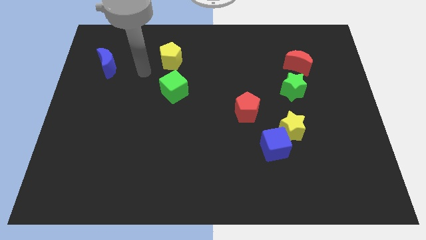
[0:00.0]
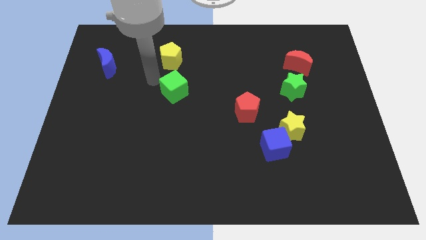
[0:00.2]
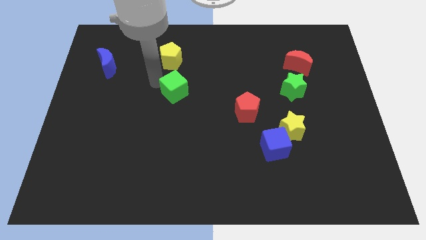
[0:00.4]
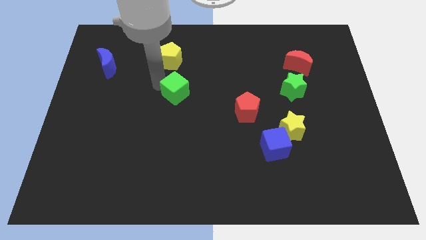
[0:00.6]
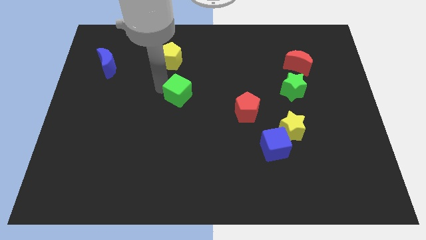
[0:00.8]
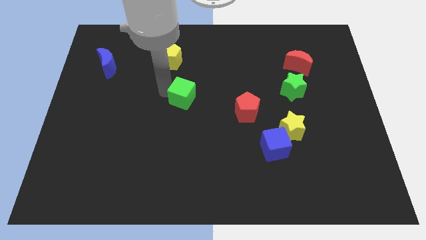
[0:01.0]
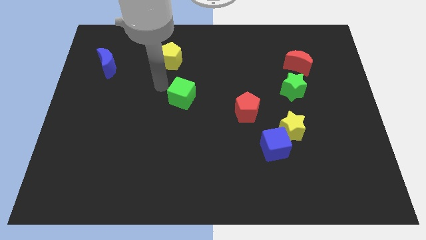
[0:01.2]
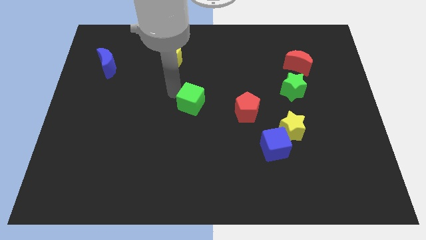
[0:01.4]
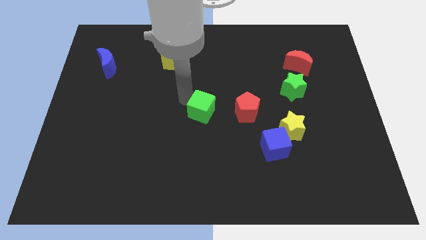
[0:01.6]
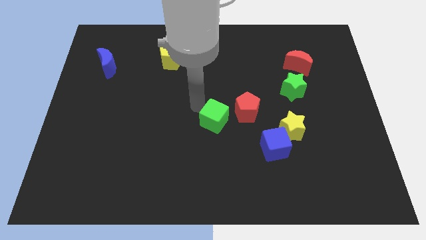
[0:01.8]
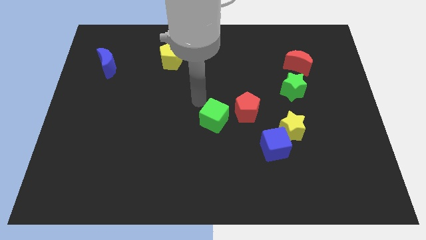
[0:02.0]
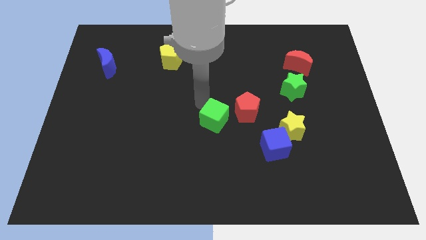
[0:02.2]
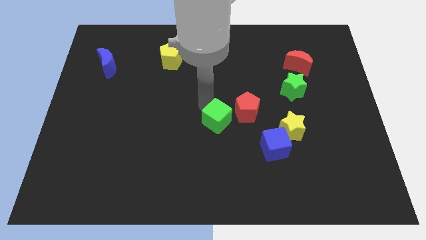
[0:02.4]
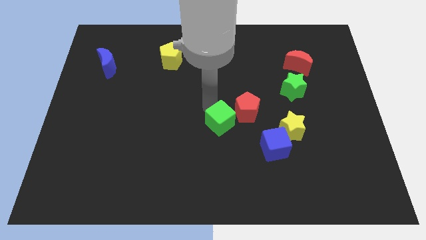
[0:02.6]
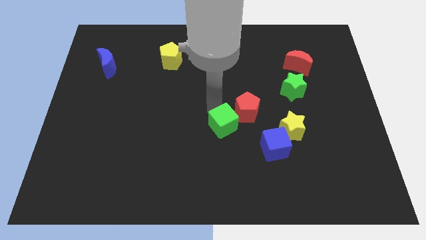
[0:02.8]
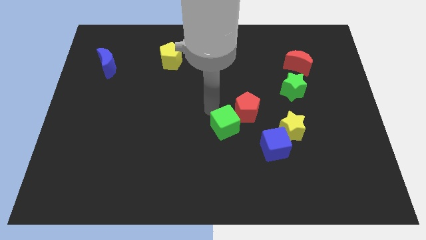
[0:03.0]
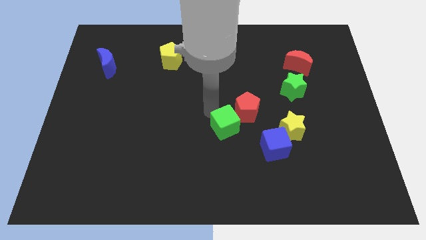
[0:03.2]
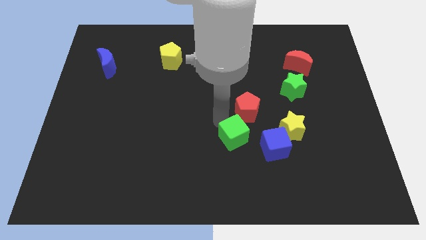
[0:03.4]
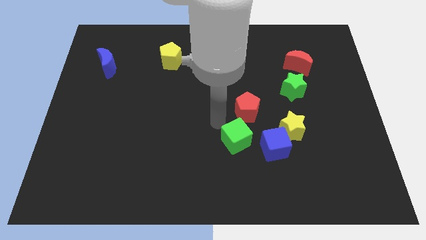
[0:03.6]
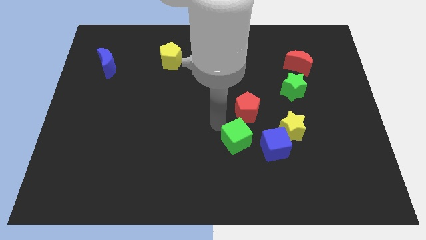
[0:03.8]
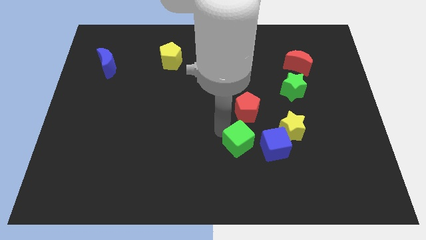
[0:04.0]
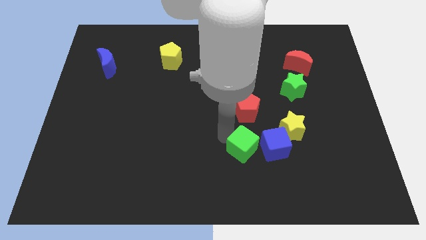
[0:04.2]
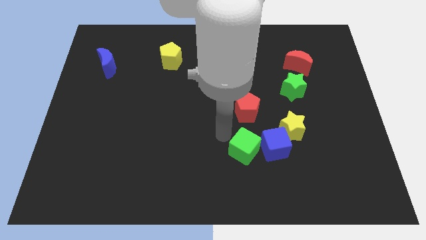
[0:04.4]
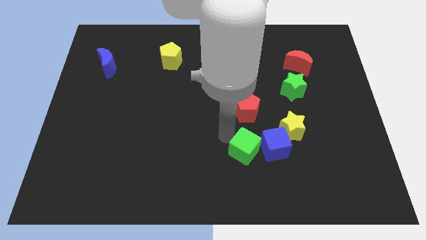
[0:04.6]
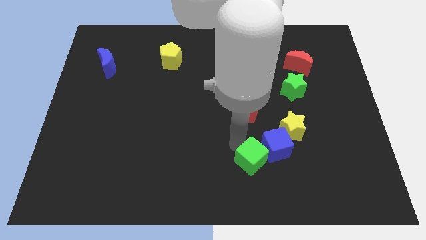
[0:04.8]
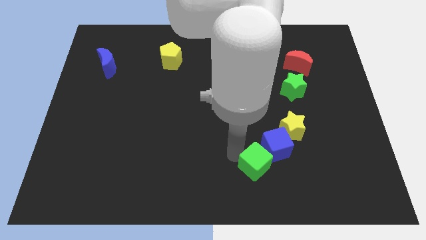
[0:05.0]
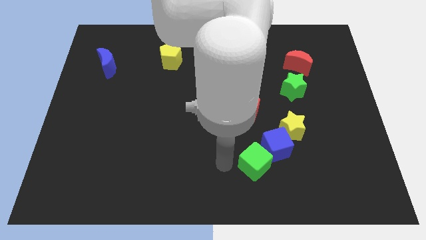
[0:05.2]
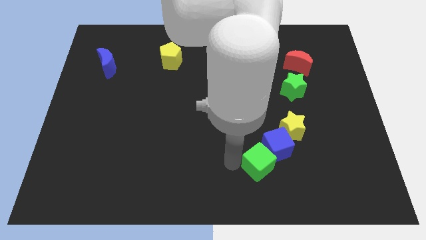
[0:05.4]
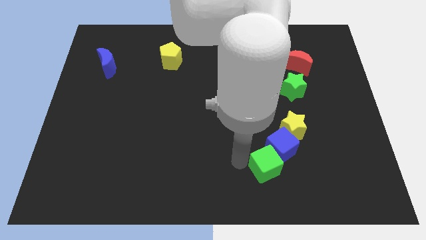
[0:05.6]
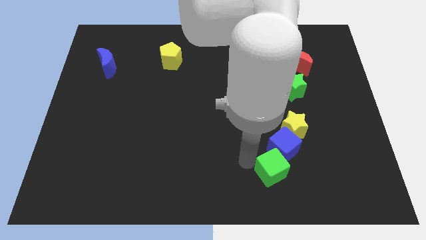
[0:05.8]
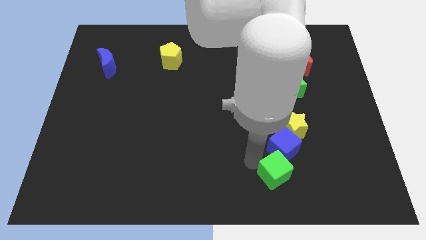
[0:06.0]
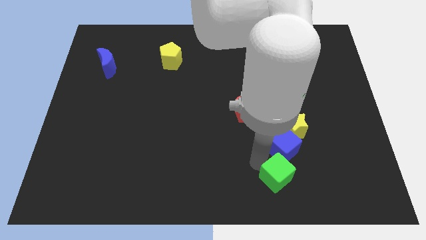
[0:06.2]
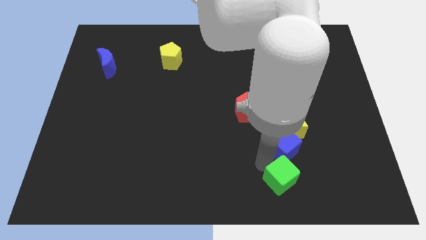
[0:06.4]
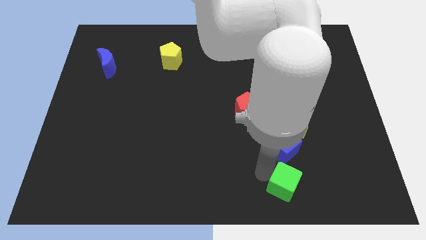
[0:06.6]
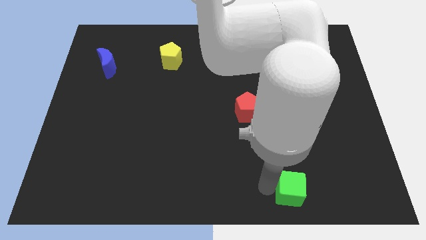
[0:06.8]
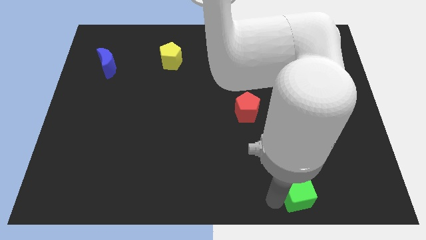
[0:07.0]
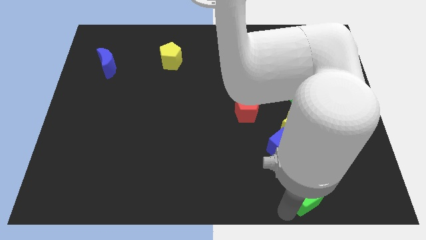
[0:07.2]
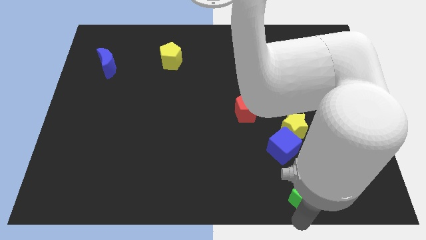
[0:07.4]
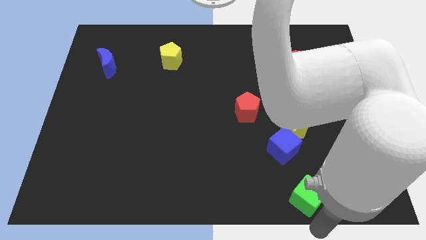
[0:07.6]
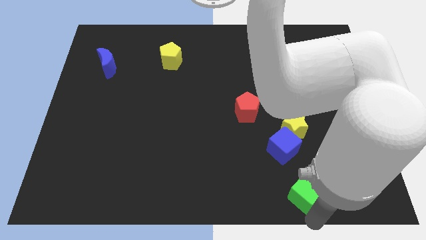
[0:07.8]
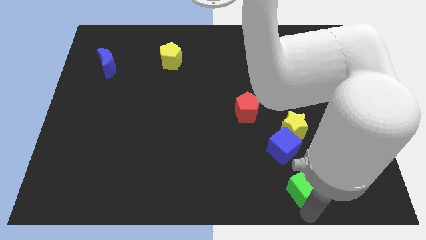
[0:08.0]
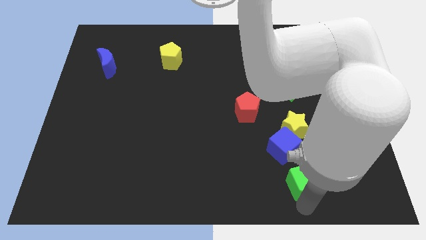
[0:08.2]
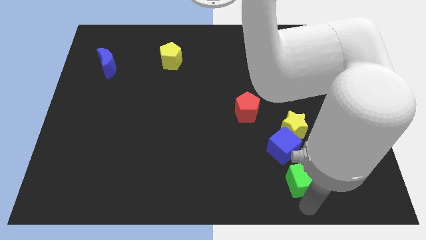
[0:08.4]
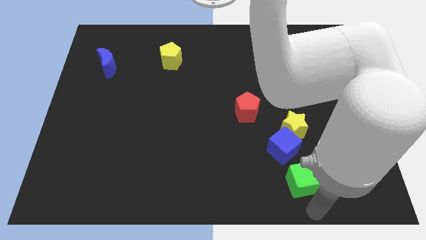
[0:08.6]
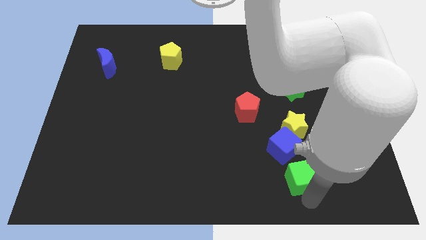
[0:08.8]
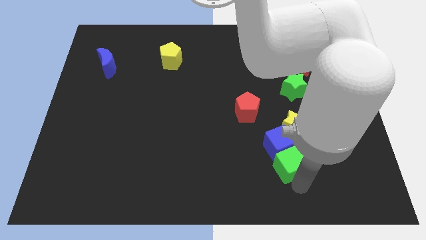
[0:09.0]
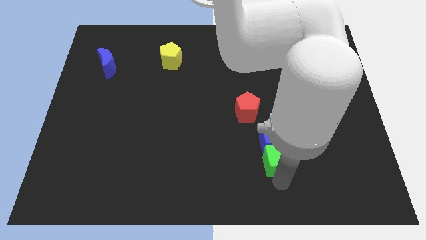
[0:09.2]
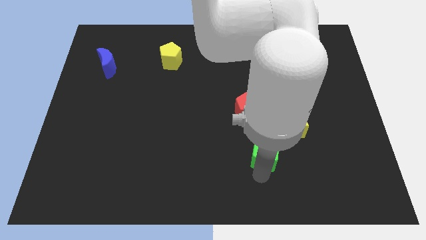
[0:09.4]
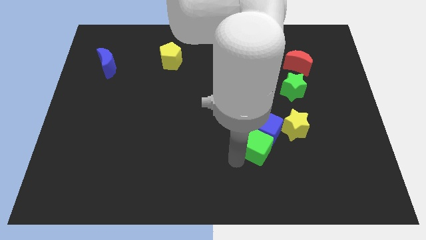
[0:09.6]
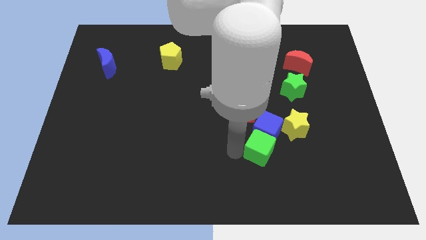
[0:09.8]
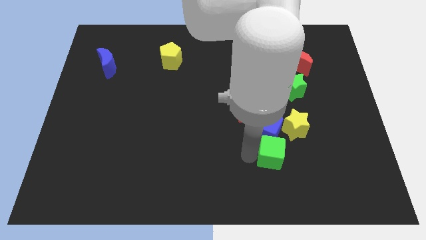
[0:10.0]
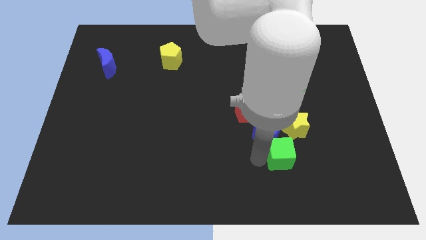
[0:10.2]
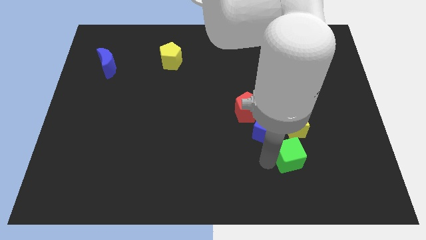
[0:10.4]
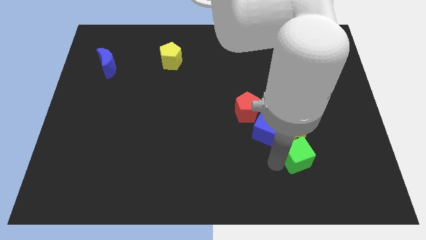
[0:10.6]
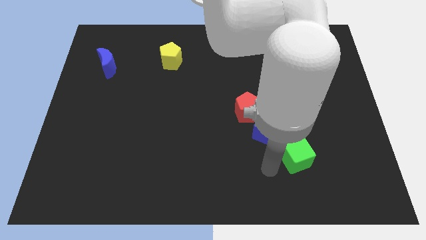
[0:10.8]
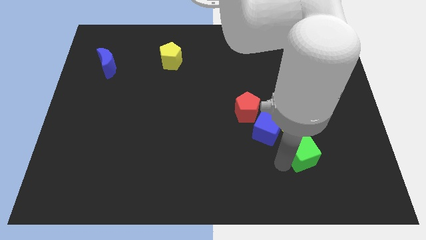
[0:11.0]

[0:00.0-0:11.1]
slide the green cube diagonally down and to the right of the yellow star

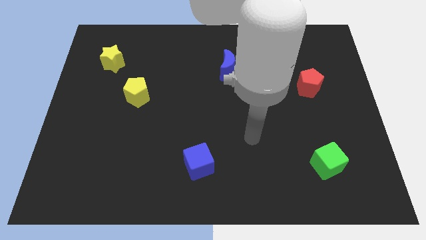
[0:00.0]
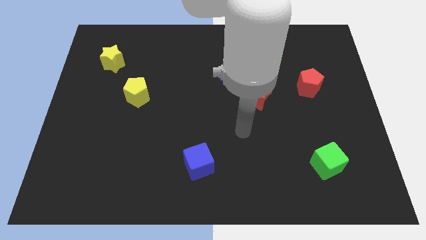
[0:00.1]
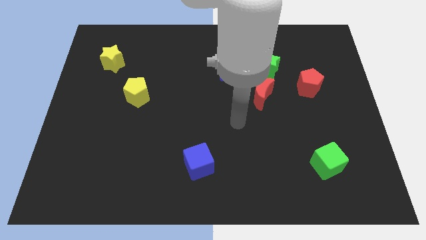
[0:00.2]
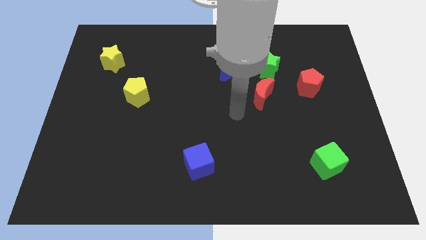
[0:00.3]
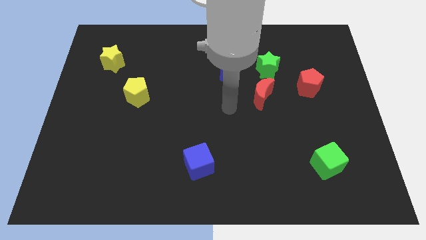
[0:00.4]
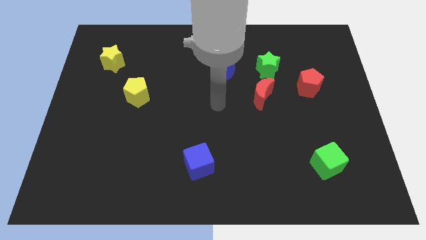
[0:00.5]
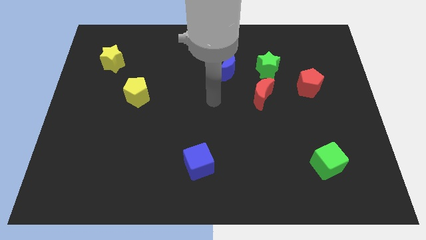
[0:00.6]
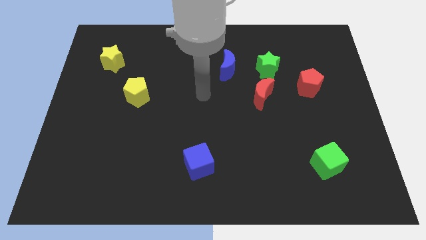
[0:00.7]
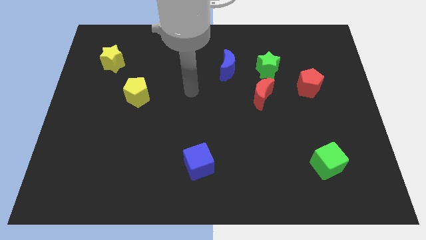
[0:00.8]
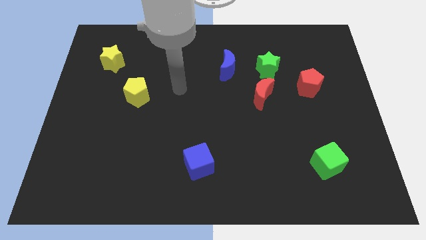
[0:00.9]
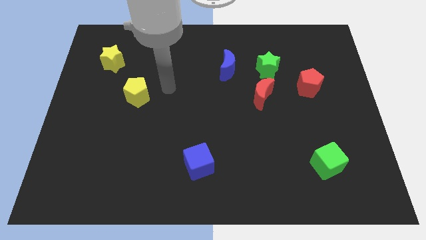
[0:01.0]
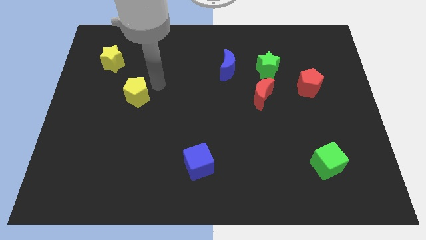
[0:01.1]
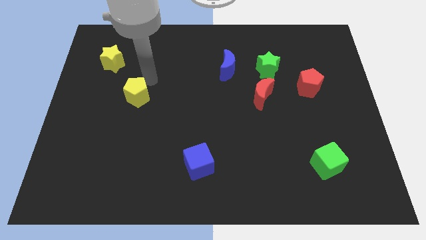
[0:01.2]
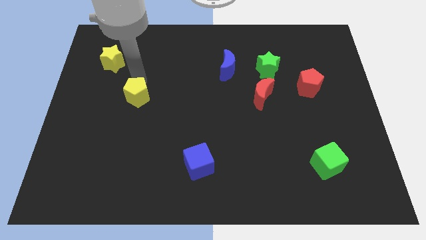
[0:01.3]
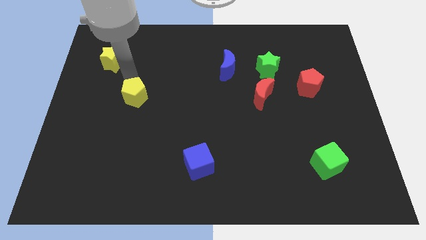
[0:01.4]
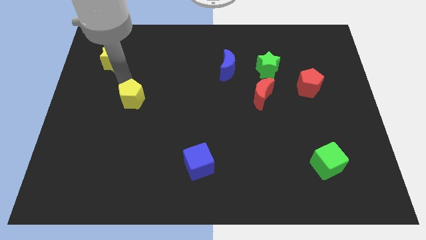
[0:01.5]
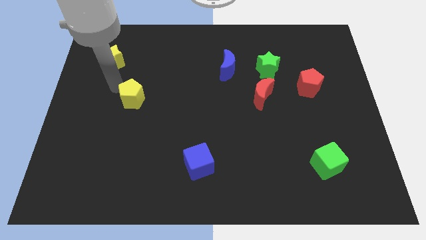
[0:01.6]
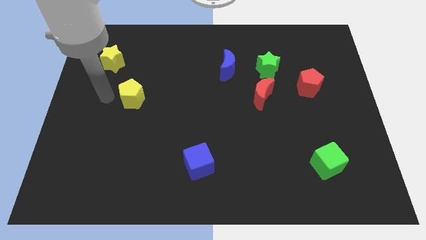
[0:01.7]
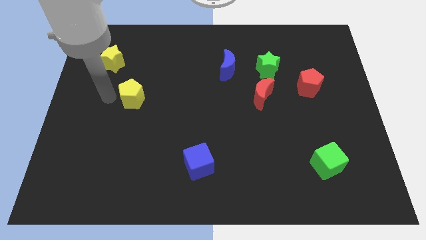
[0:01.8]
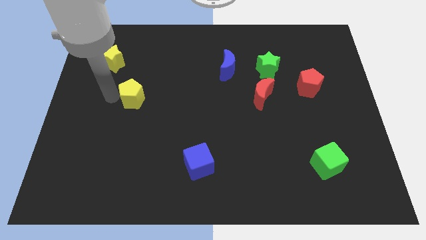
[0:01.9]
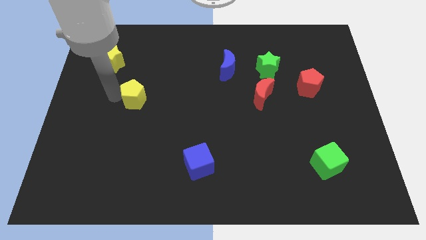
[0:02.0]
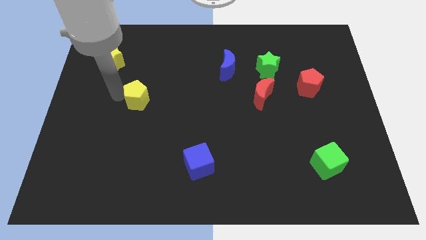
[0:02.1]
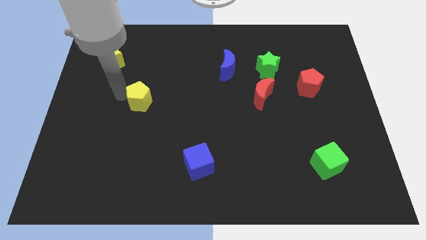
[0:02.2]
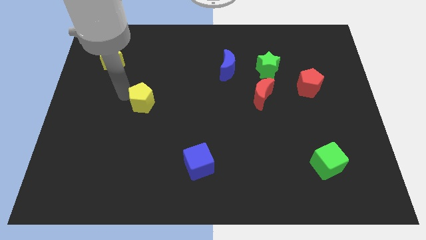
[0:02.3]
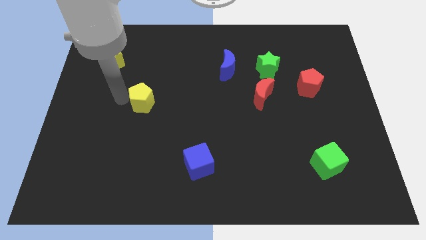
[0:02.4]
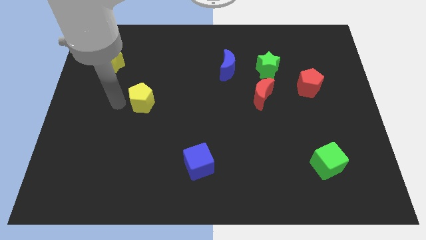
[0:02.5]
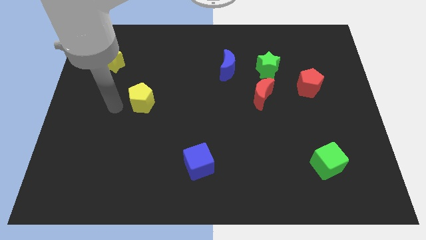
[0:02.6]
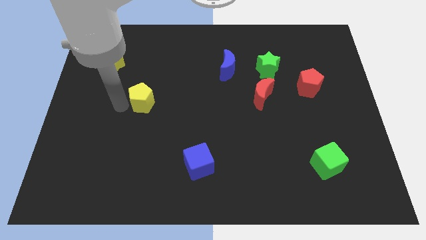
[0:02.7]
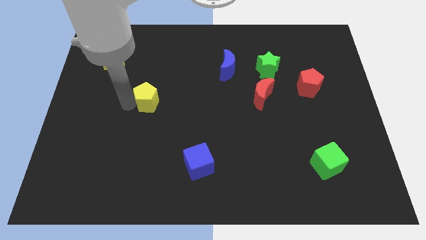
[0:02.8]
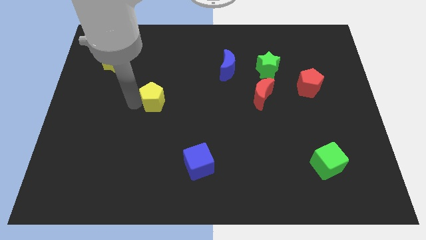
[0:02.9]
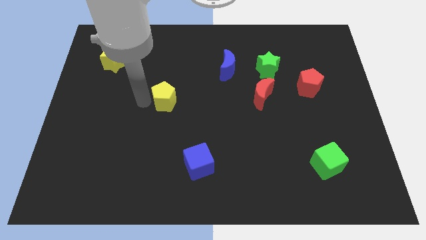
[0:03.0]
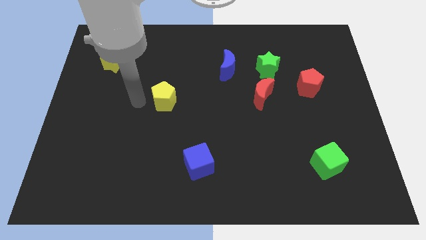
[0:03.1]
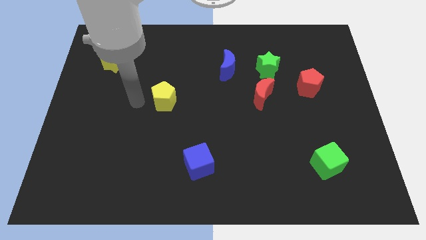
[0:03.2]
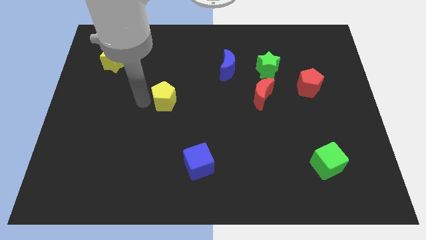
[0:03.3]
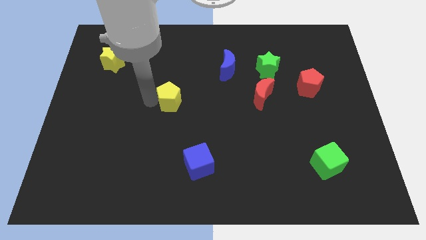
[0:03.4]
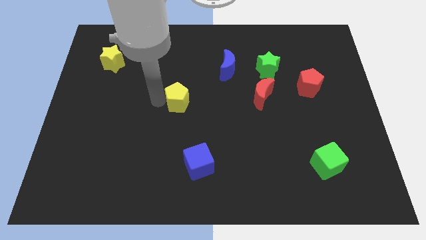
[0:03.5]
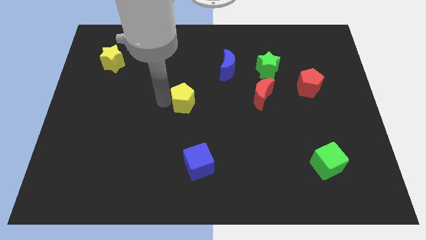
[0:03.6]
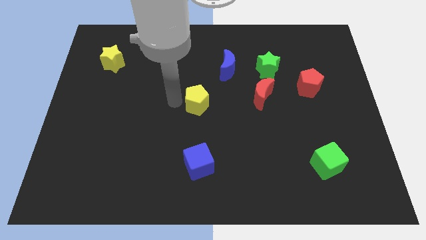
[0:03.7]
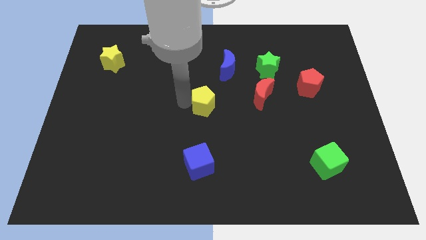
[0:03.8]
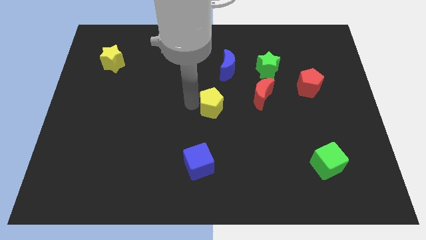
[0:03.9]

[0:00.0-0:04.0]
move the yellow pentagon to the bottom side of the blue moon
